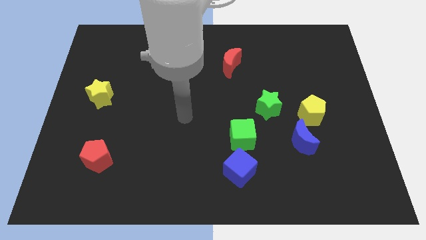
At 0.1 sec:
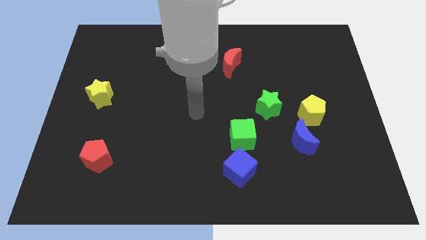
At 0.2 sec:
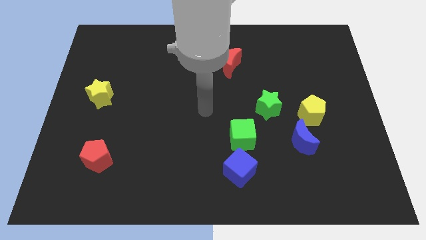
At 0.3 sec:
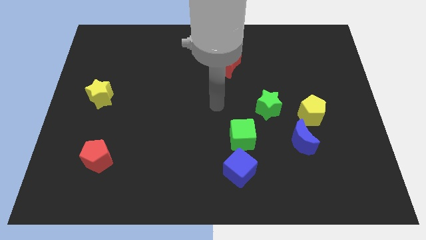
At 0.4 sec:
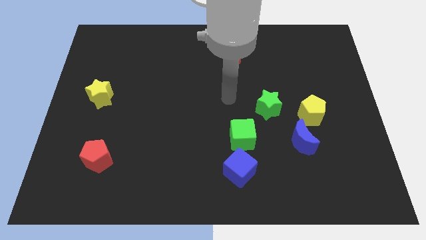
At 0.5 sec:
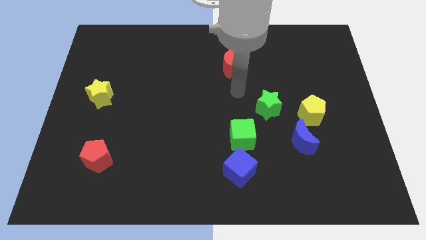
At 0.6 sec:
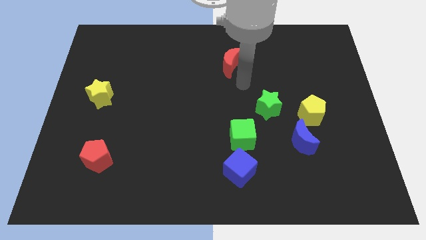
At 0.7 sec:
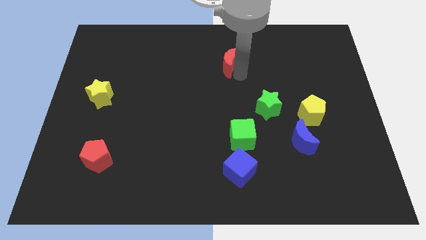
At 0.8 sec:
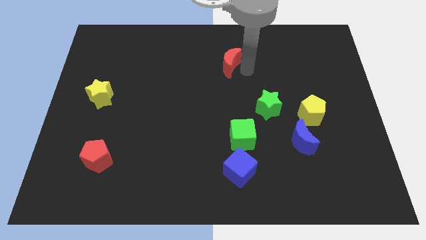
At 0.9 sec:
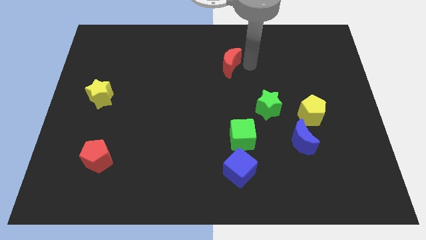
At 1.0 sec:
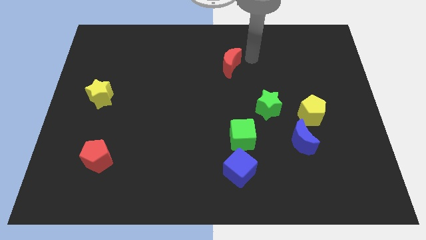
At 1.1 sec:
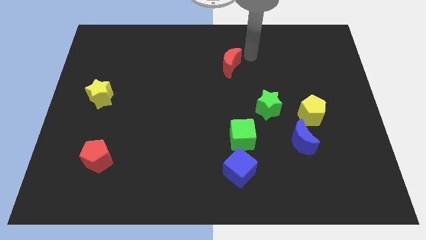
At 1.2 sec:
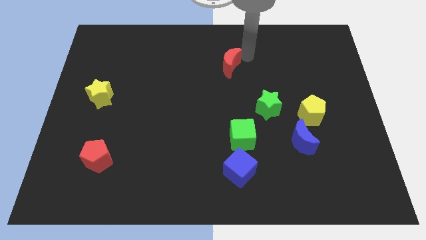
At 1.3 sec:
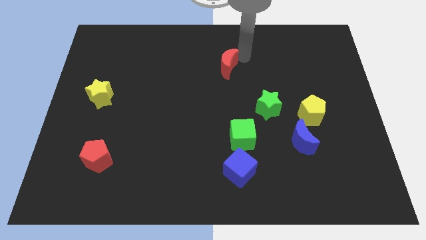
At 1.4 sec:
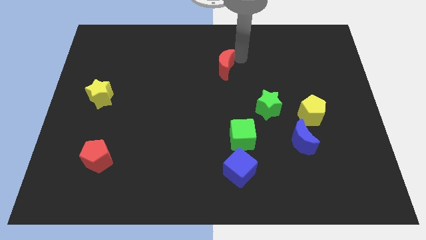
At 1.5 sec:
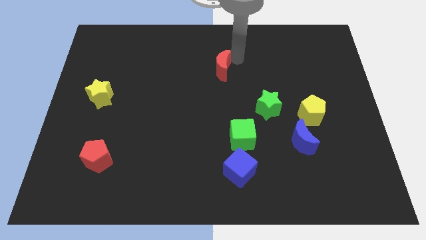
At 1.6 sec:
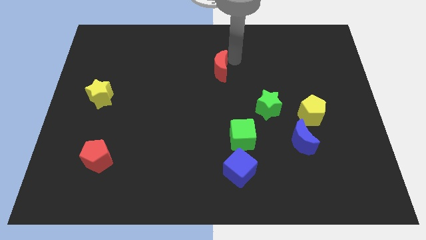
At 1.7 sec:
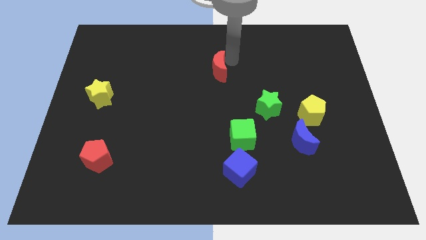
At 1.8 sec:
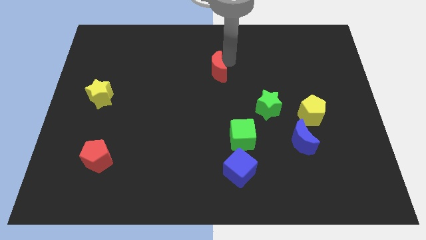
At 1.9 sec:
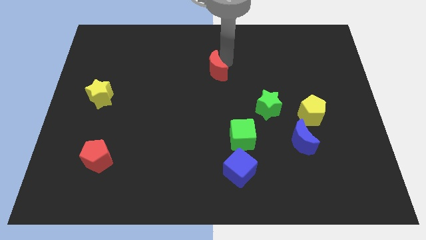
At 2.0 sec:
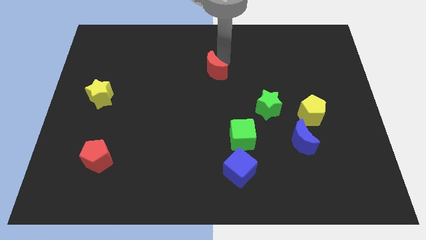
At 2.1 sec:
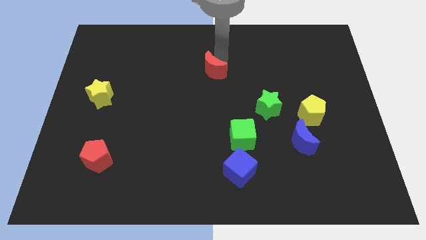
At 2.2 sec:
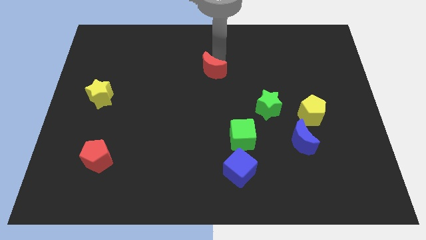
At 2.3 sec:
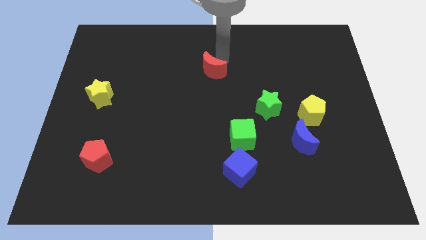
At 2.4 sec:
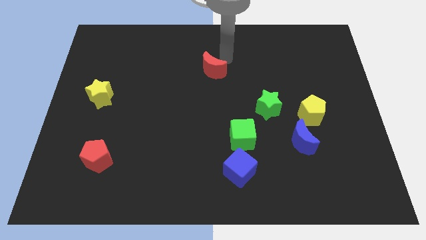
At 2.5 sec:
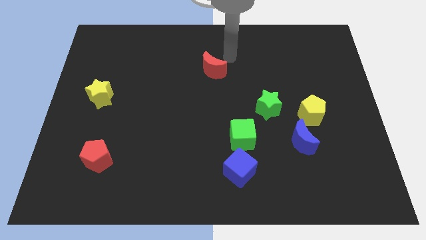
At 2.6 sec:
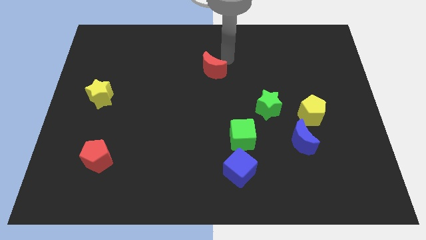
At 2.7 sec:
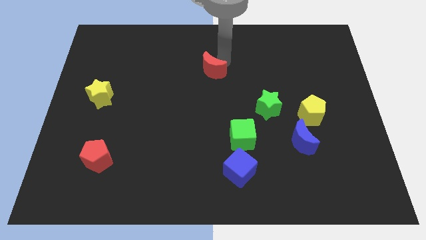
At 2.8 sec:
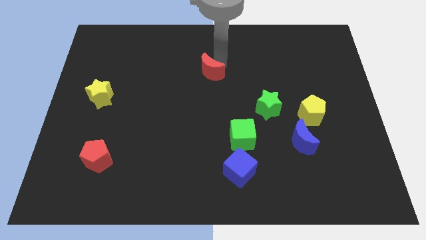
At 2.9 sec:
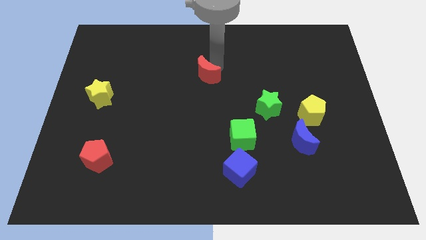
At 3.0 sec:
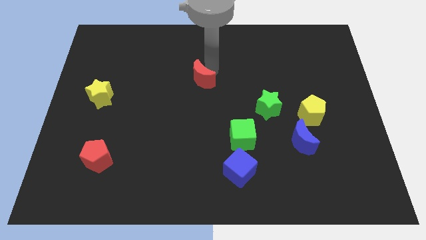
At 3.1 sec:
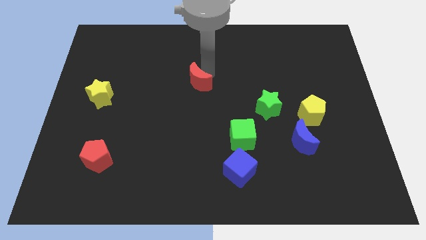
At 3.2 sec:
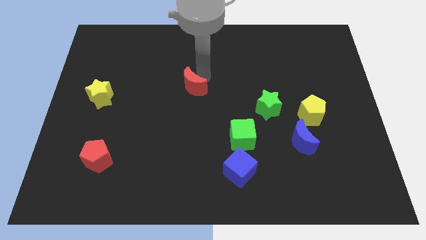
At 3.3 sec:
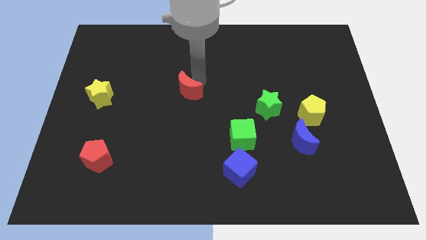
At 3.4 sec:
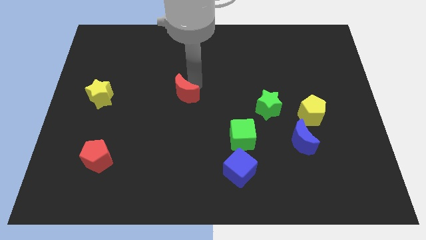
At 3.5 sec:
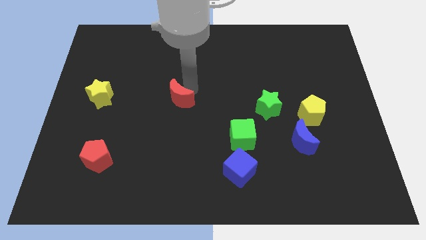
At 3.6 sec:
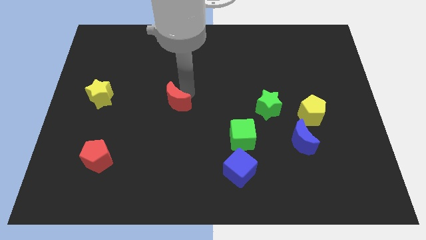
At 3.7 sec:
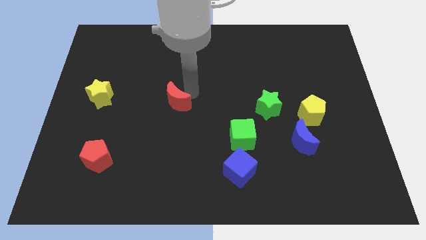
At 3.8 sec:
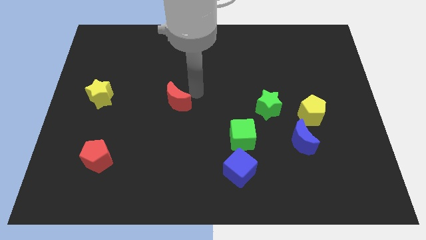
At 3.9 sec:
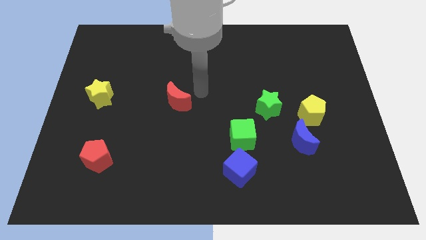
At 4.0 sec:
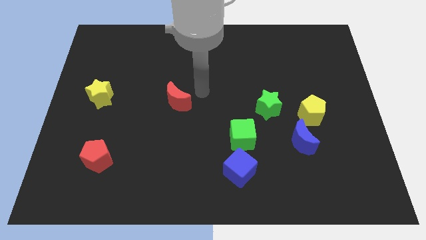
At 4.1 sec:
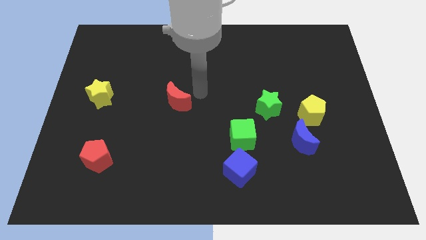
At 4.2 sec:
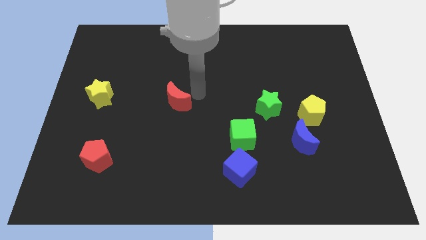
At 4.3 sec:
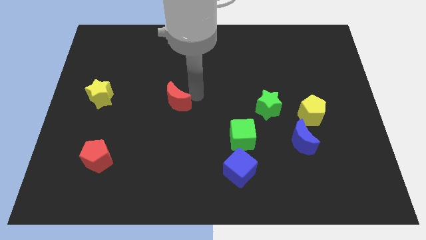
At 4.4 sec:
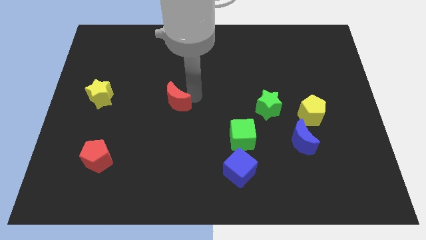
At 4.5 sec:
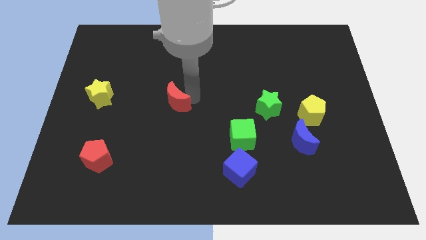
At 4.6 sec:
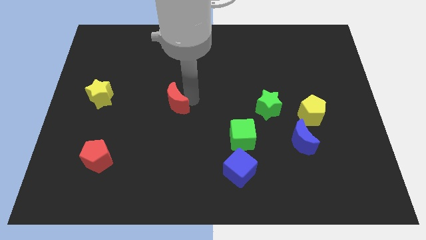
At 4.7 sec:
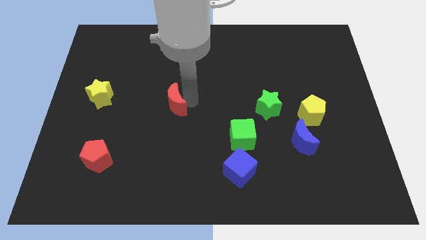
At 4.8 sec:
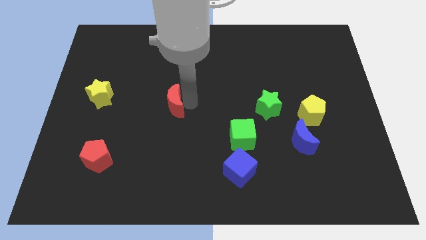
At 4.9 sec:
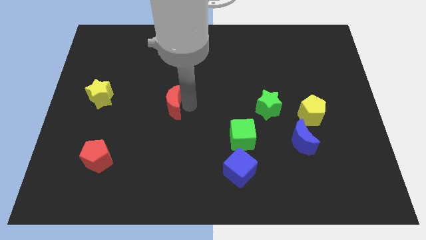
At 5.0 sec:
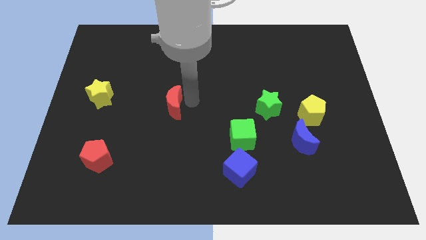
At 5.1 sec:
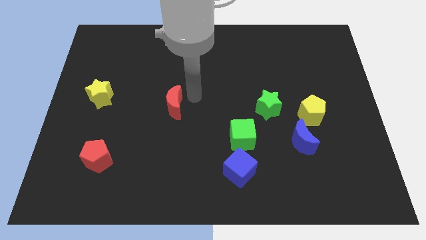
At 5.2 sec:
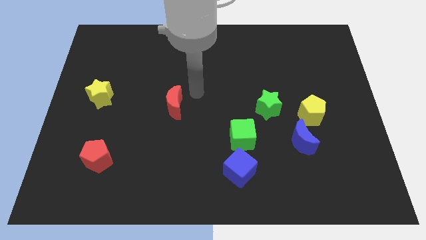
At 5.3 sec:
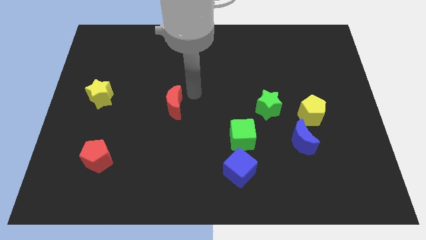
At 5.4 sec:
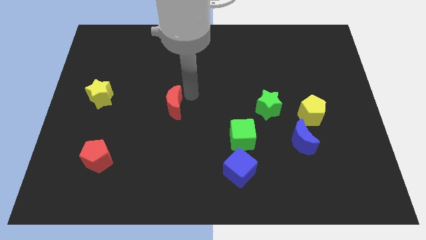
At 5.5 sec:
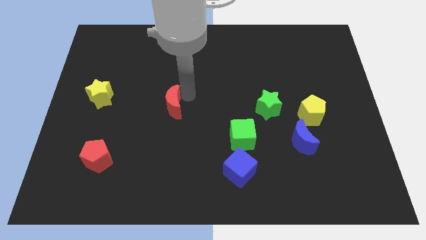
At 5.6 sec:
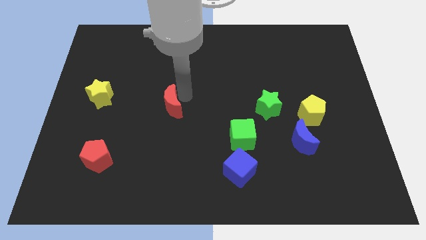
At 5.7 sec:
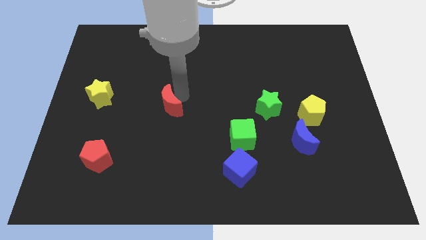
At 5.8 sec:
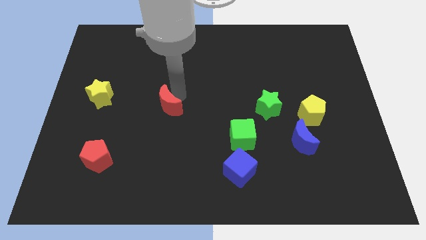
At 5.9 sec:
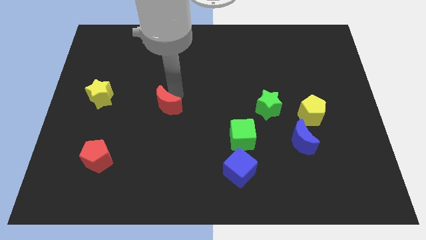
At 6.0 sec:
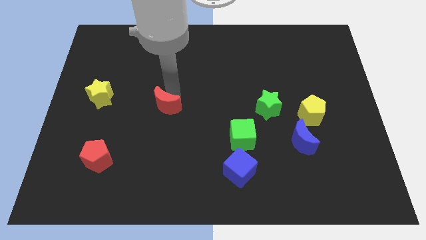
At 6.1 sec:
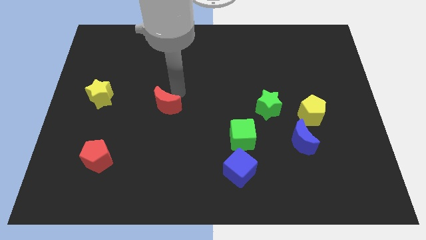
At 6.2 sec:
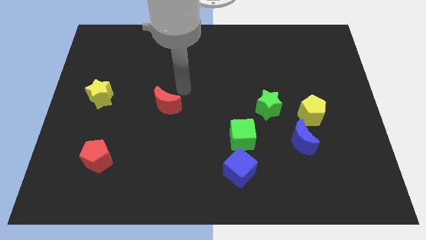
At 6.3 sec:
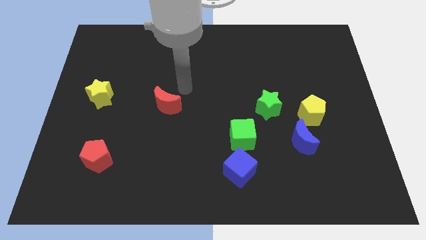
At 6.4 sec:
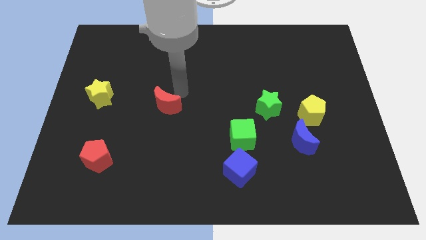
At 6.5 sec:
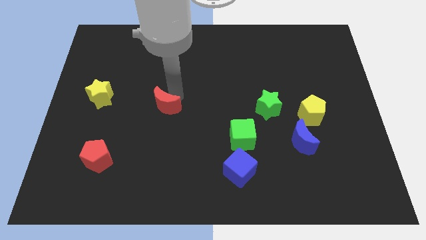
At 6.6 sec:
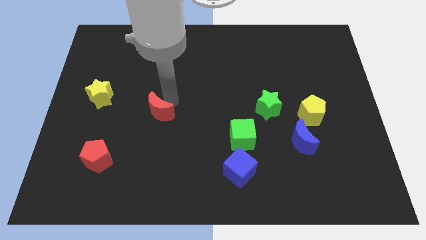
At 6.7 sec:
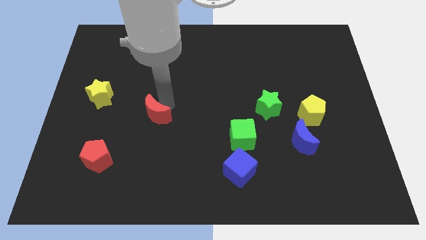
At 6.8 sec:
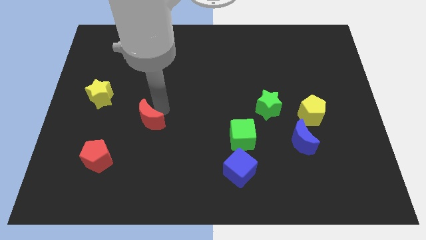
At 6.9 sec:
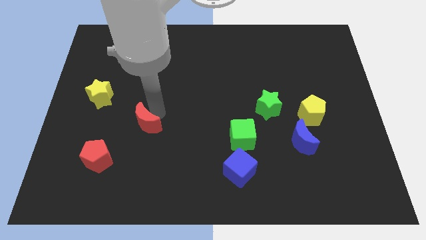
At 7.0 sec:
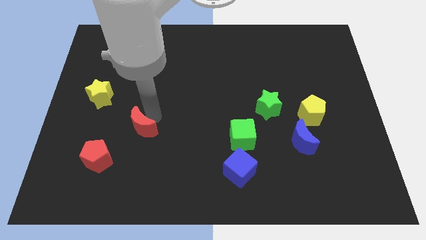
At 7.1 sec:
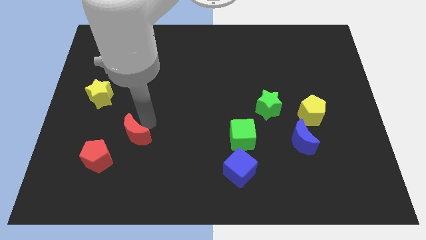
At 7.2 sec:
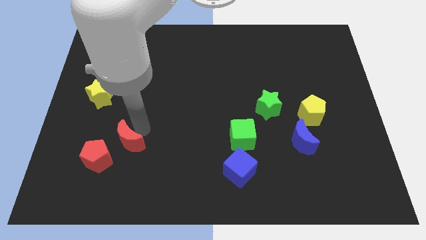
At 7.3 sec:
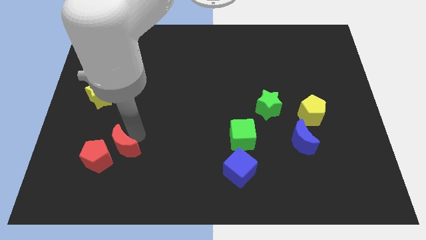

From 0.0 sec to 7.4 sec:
slide the red moon close to the red pentagon

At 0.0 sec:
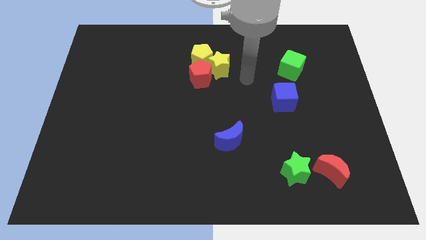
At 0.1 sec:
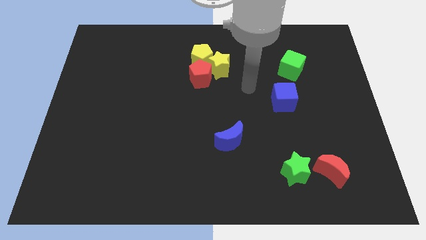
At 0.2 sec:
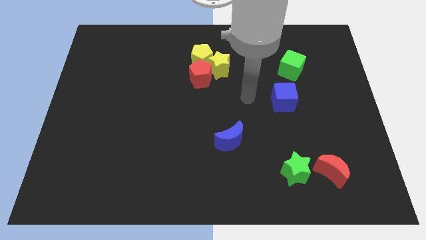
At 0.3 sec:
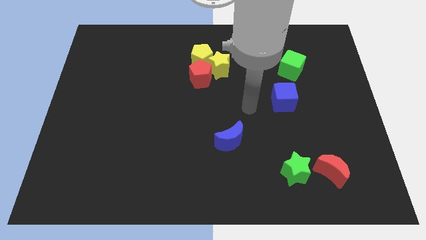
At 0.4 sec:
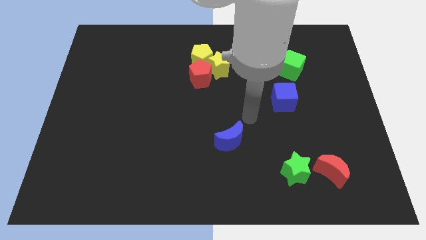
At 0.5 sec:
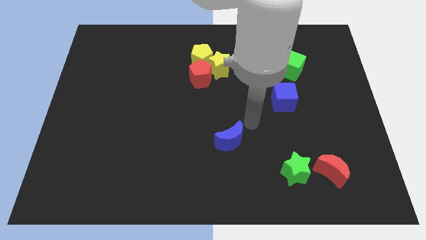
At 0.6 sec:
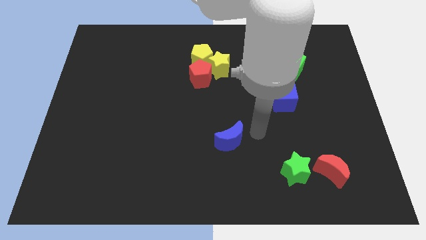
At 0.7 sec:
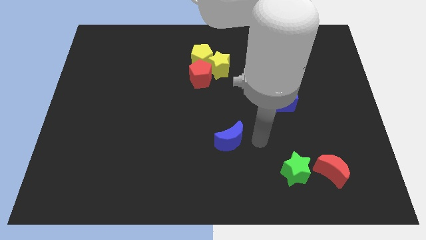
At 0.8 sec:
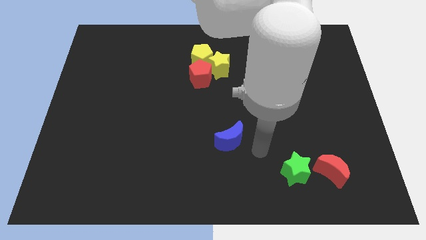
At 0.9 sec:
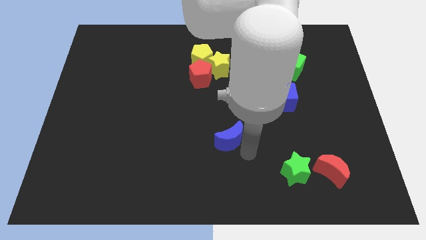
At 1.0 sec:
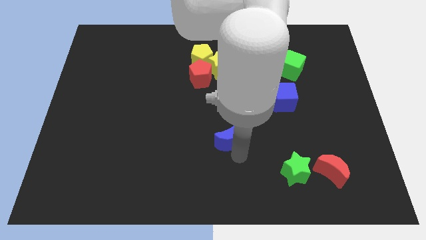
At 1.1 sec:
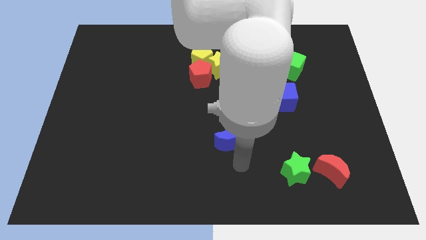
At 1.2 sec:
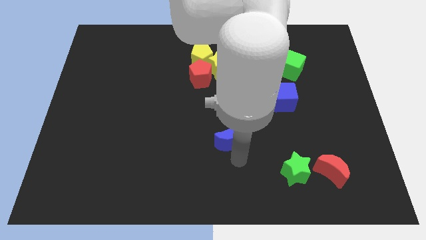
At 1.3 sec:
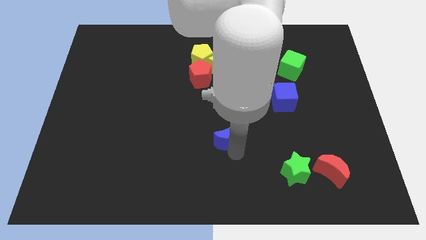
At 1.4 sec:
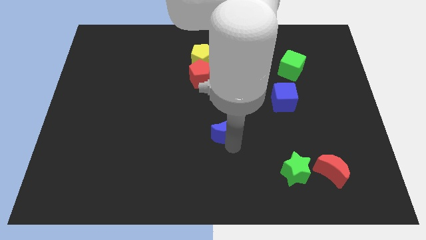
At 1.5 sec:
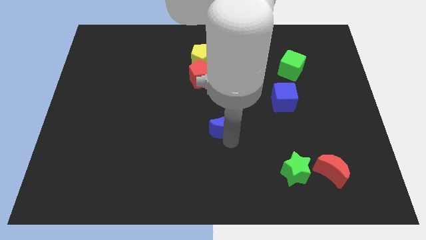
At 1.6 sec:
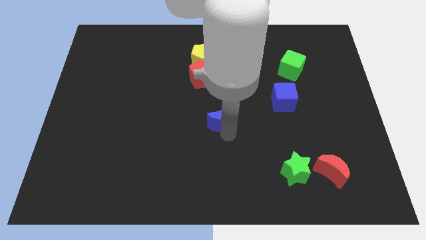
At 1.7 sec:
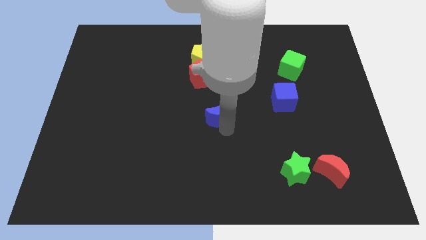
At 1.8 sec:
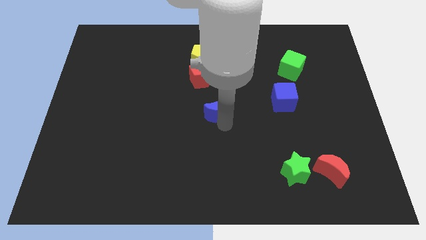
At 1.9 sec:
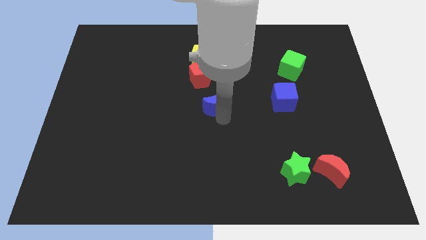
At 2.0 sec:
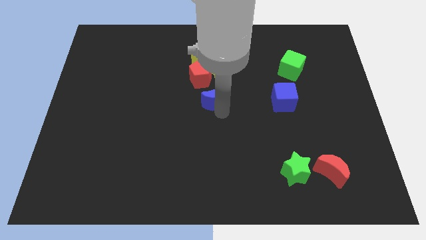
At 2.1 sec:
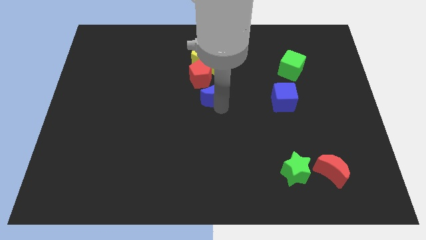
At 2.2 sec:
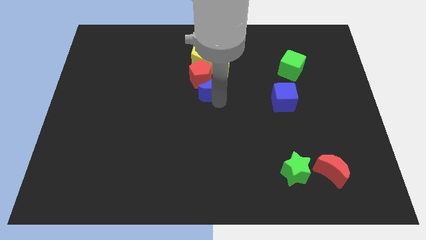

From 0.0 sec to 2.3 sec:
move the blue moon to the red pentagon
